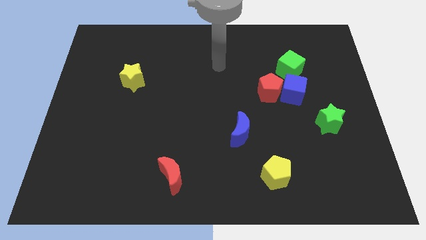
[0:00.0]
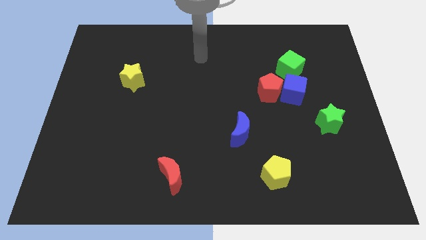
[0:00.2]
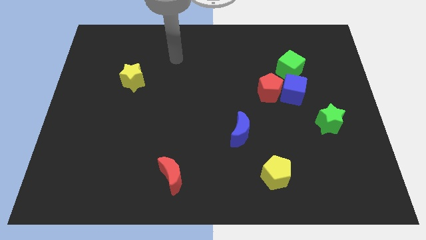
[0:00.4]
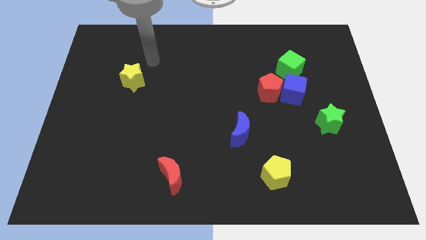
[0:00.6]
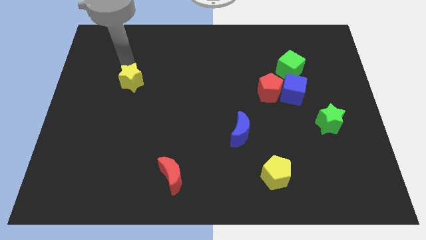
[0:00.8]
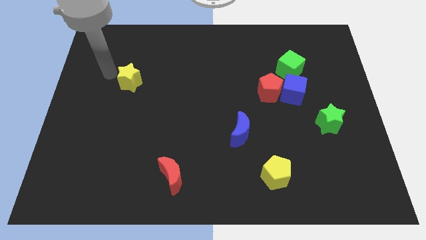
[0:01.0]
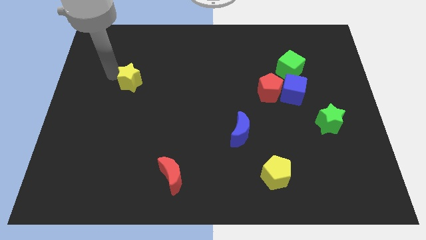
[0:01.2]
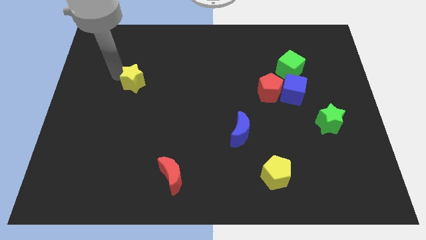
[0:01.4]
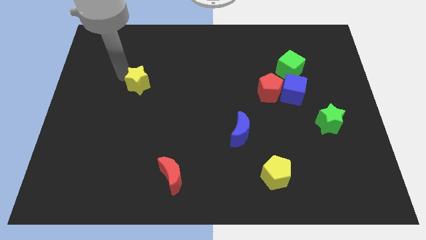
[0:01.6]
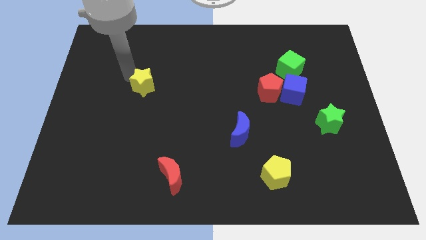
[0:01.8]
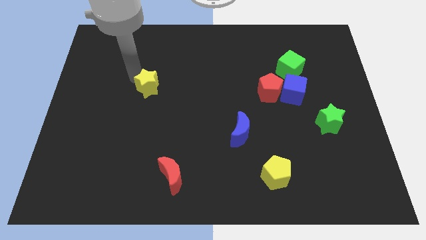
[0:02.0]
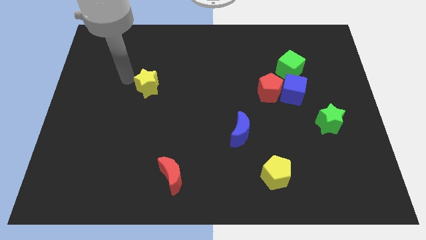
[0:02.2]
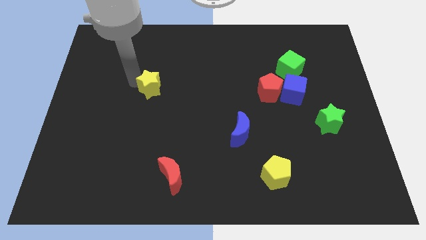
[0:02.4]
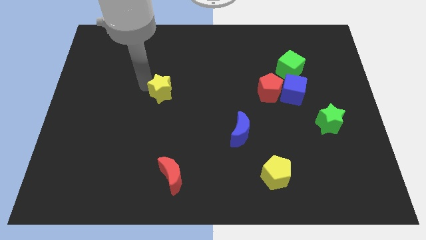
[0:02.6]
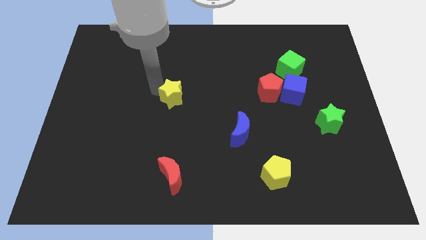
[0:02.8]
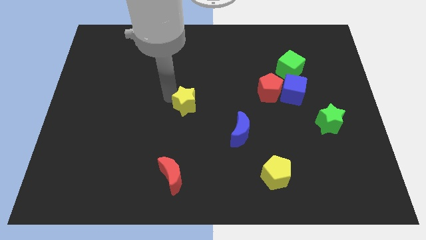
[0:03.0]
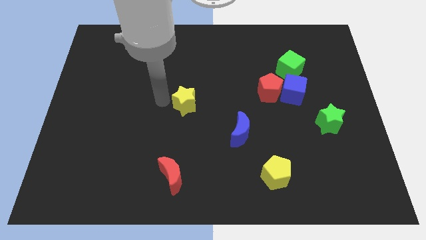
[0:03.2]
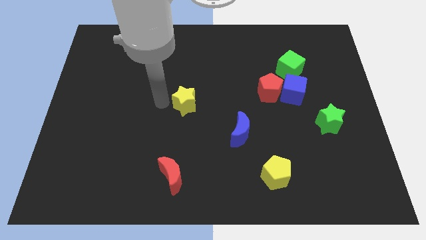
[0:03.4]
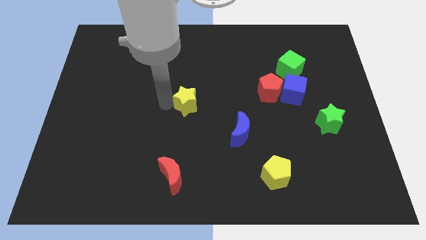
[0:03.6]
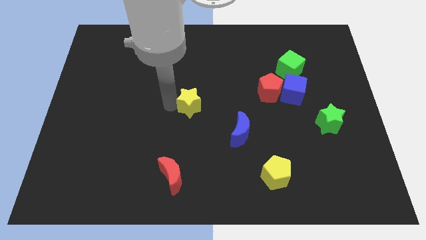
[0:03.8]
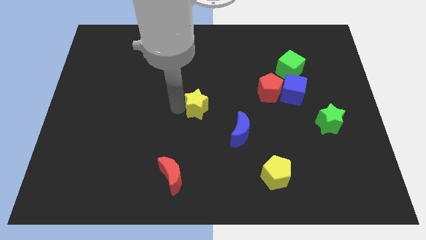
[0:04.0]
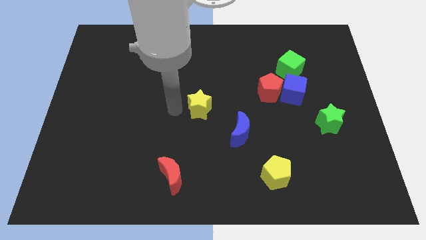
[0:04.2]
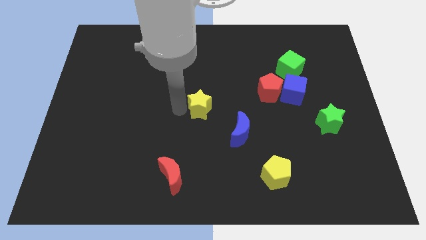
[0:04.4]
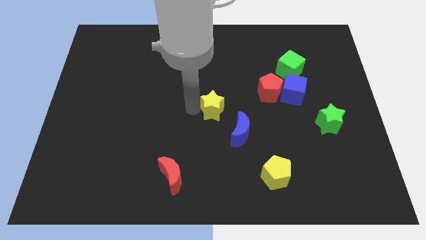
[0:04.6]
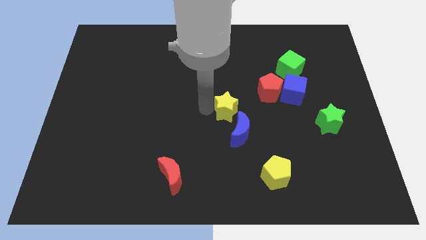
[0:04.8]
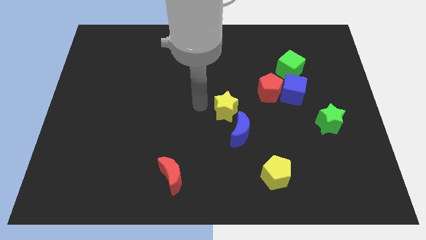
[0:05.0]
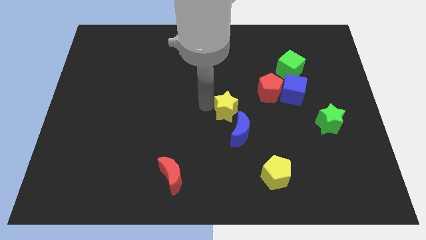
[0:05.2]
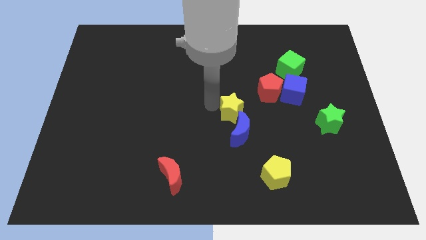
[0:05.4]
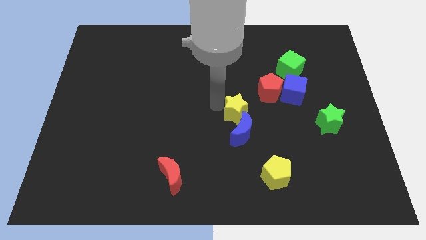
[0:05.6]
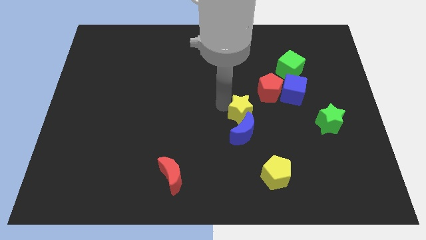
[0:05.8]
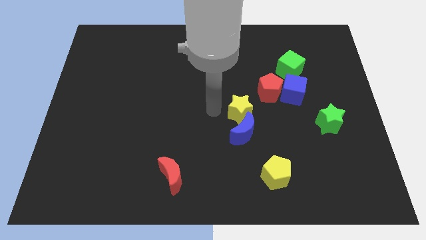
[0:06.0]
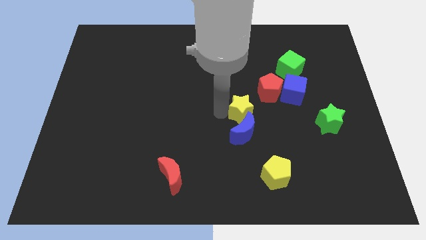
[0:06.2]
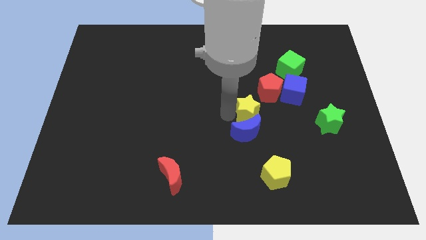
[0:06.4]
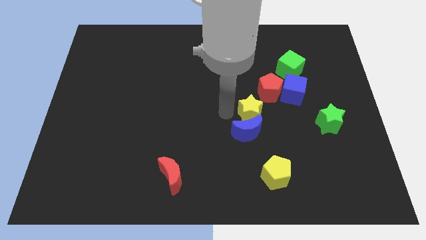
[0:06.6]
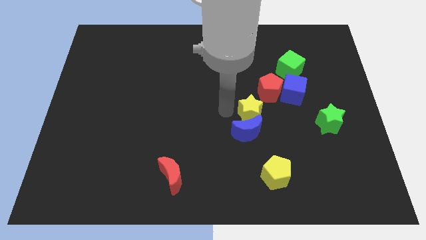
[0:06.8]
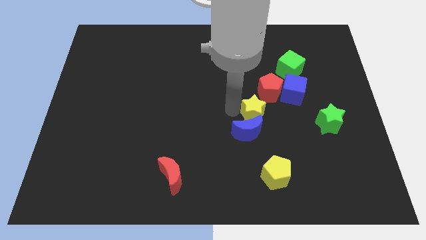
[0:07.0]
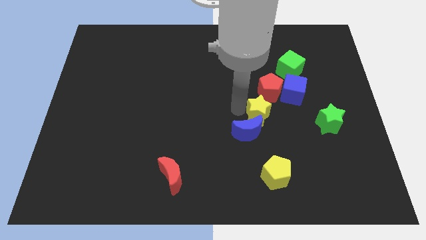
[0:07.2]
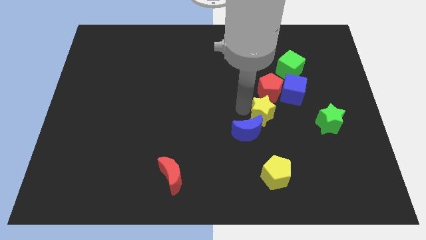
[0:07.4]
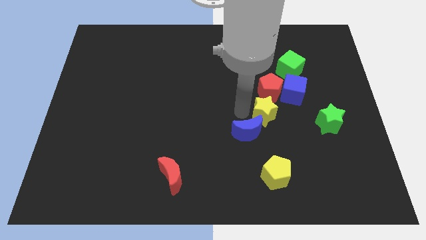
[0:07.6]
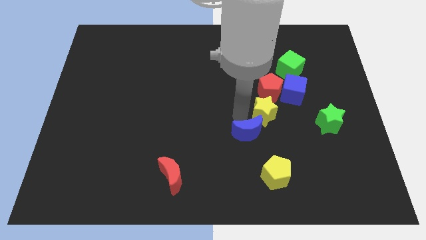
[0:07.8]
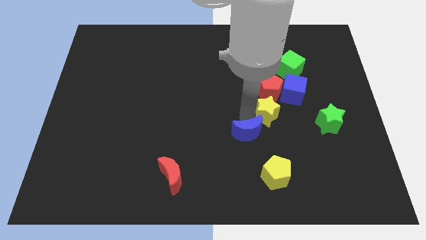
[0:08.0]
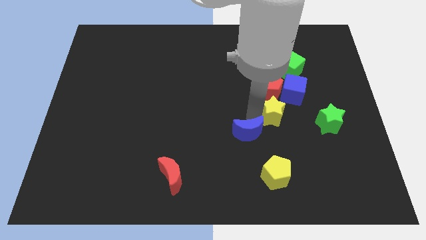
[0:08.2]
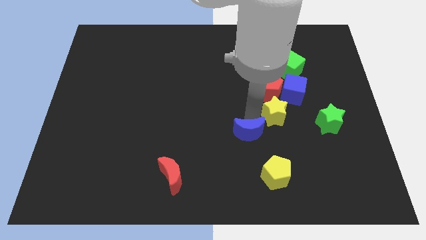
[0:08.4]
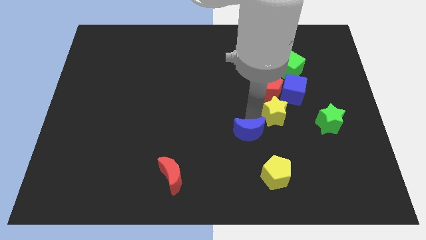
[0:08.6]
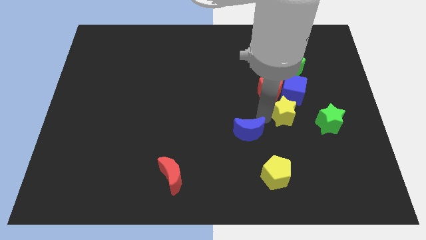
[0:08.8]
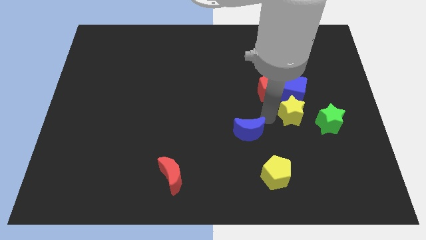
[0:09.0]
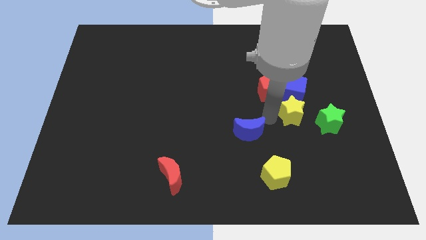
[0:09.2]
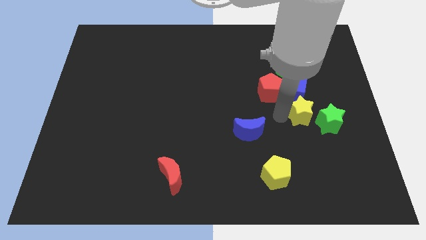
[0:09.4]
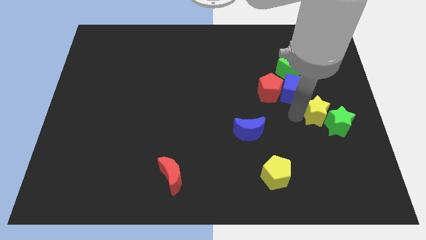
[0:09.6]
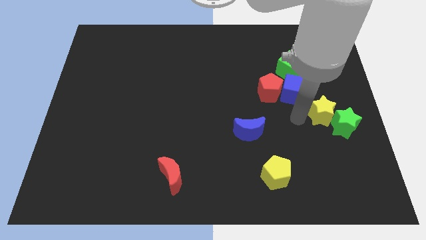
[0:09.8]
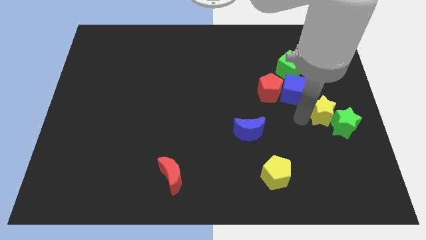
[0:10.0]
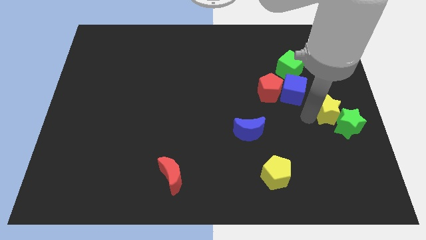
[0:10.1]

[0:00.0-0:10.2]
put the yellow star to the right side

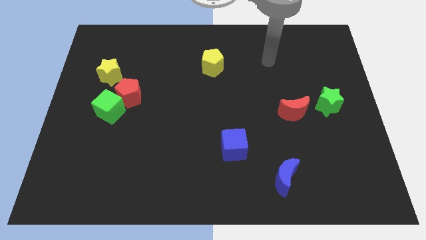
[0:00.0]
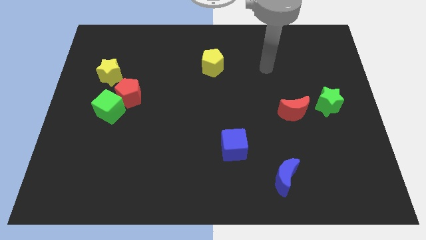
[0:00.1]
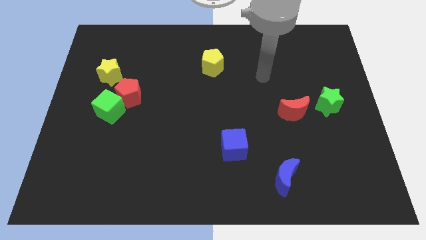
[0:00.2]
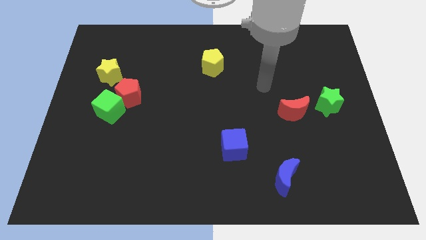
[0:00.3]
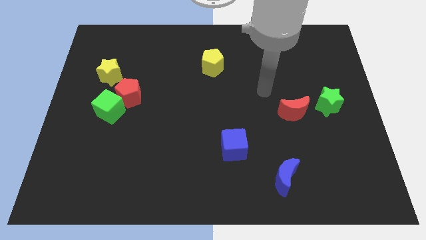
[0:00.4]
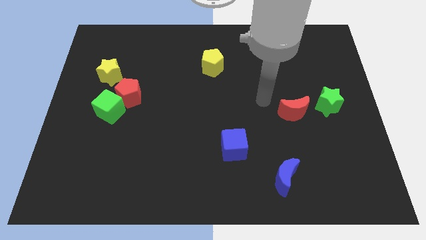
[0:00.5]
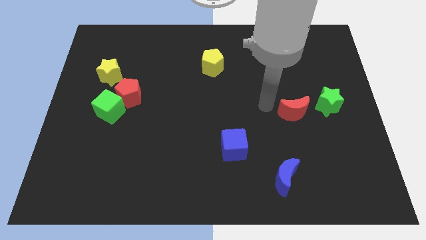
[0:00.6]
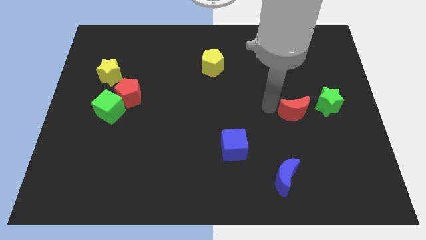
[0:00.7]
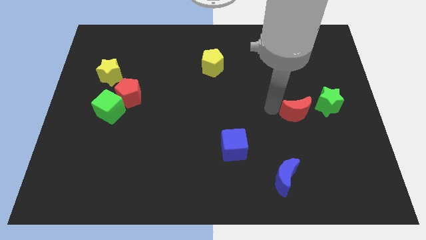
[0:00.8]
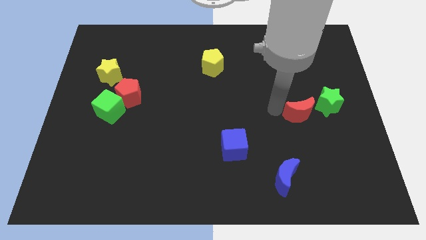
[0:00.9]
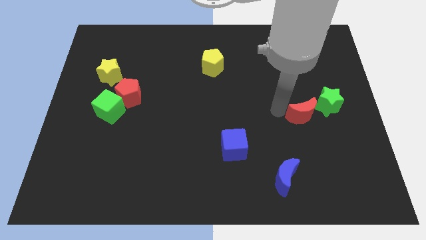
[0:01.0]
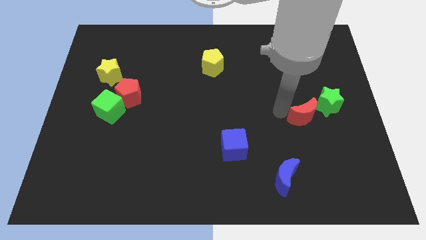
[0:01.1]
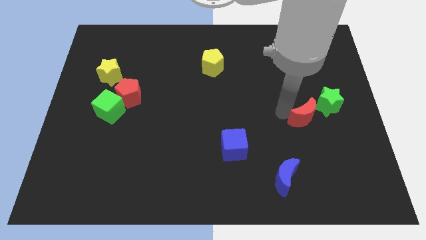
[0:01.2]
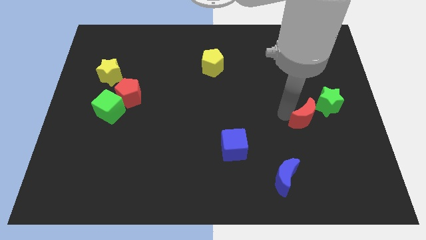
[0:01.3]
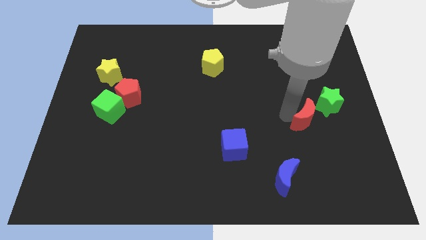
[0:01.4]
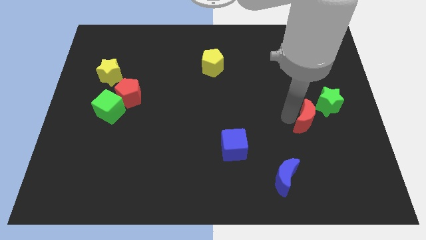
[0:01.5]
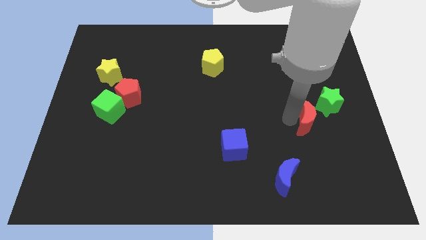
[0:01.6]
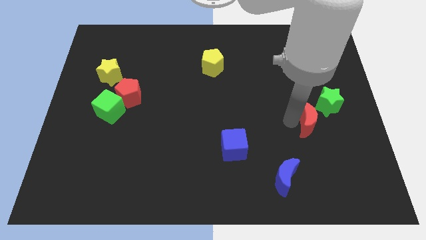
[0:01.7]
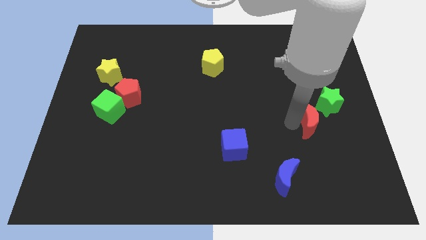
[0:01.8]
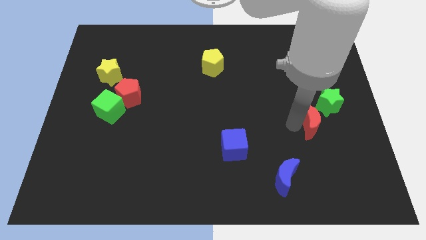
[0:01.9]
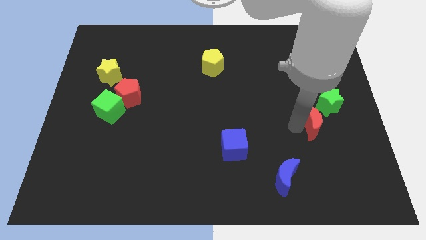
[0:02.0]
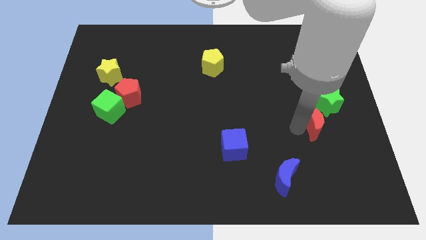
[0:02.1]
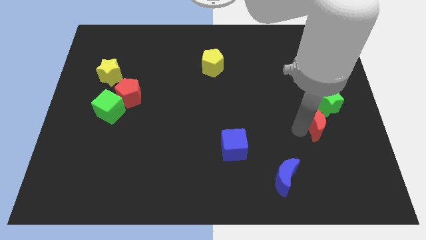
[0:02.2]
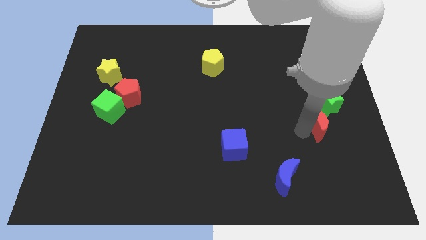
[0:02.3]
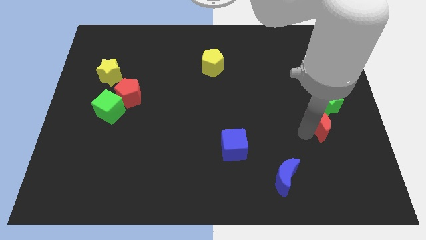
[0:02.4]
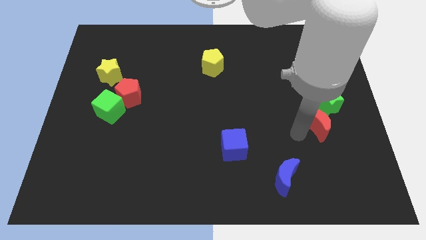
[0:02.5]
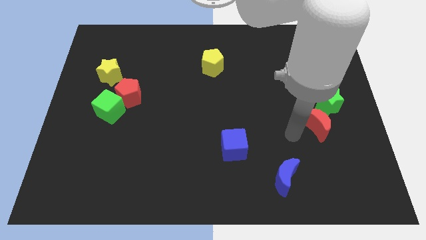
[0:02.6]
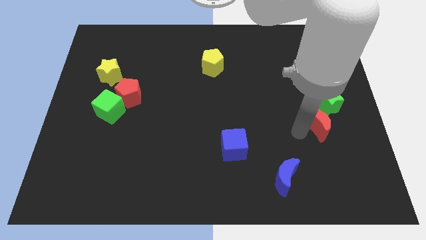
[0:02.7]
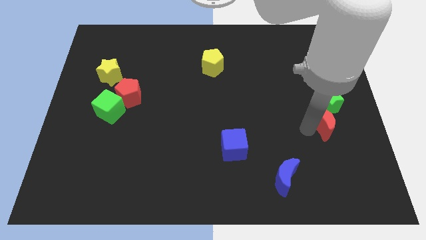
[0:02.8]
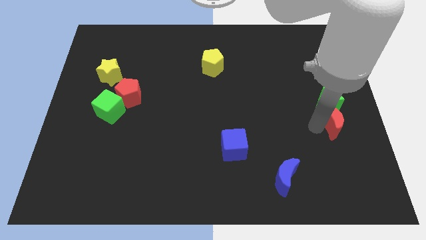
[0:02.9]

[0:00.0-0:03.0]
push the red moon to the right side of the board
